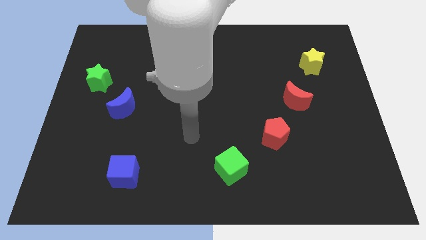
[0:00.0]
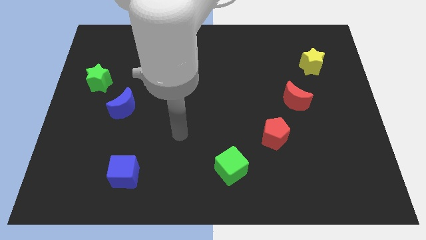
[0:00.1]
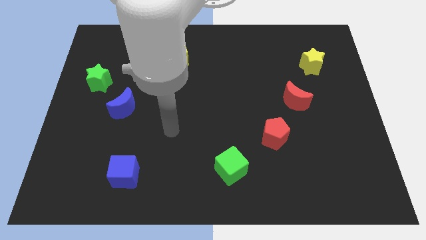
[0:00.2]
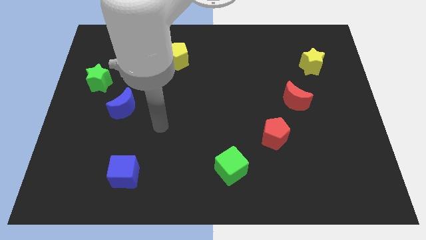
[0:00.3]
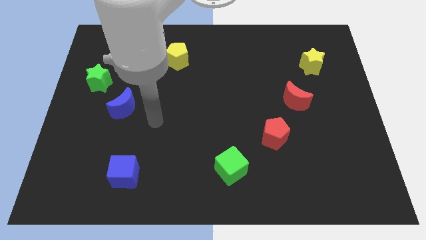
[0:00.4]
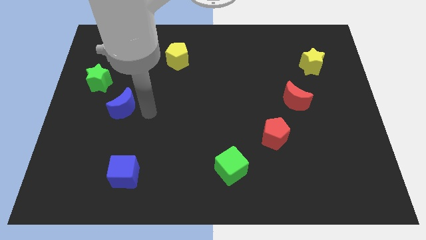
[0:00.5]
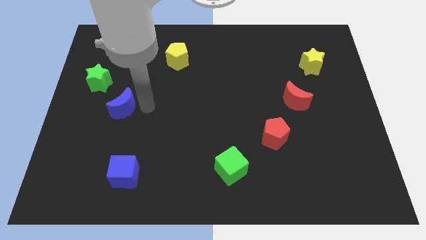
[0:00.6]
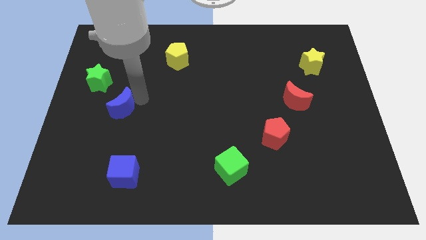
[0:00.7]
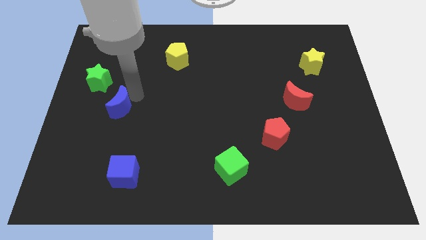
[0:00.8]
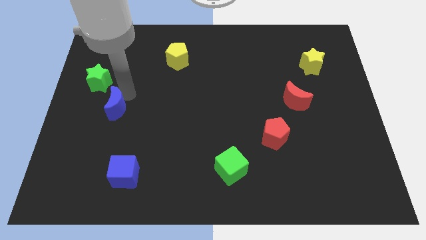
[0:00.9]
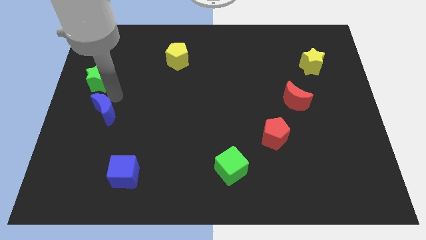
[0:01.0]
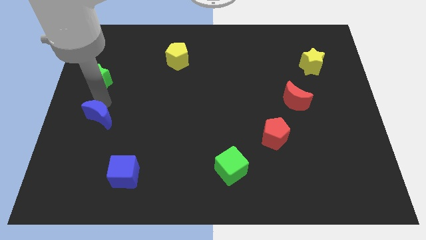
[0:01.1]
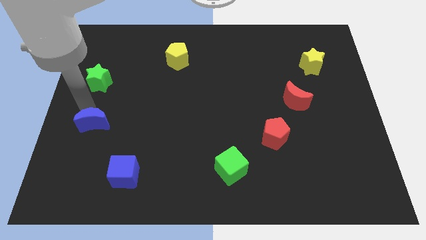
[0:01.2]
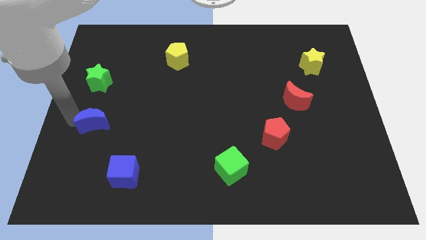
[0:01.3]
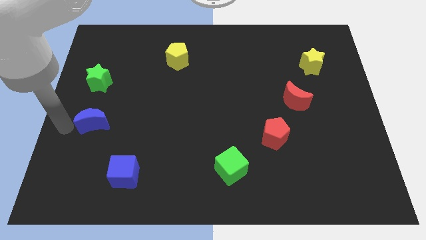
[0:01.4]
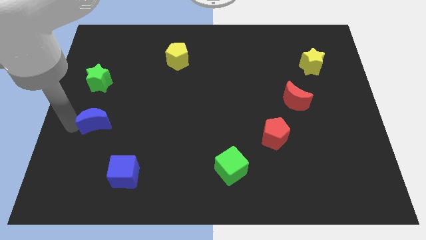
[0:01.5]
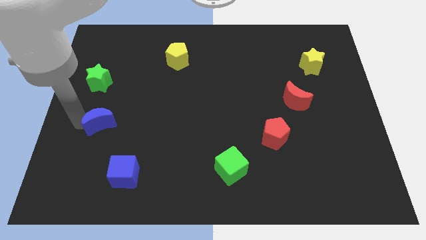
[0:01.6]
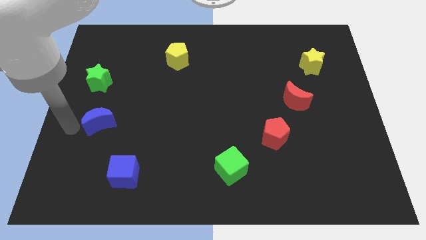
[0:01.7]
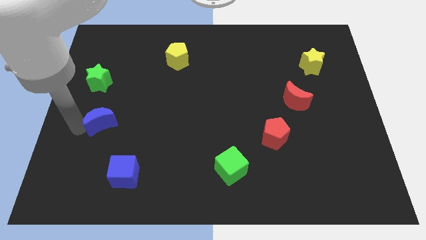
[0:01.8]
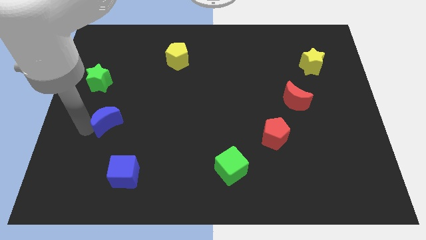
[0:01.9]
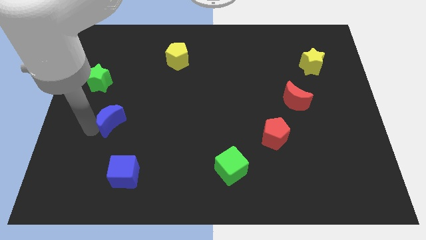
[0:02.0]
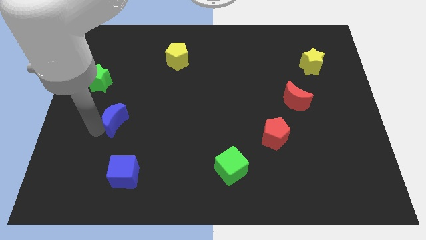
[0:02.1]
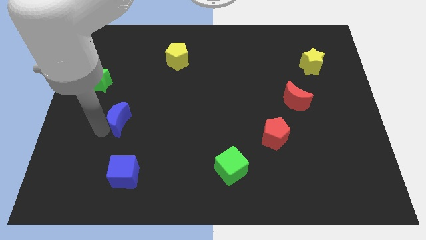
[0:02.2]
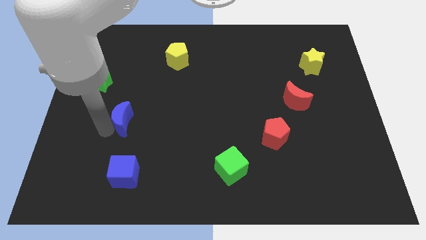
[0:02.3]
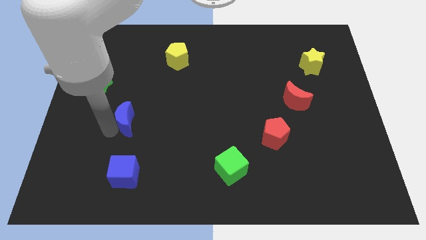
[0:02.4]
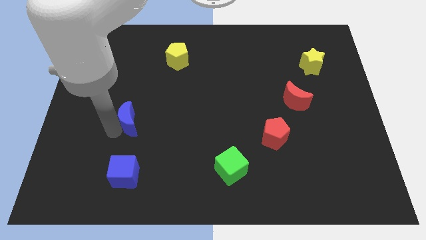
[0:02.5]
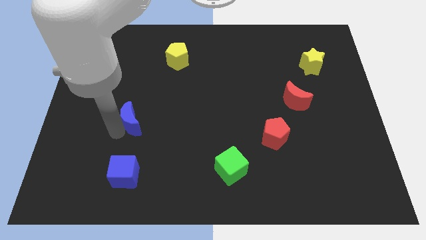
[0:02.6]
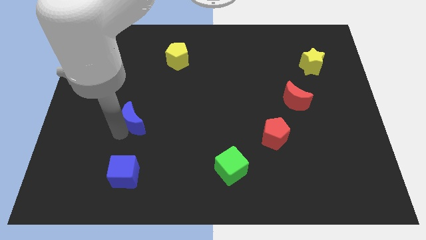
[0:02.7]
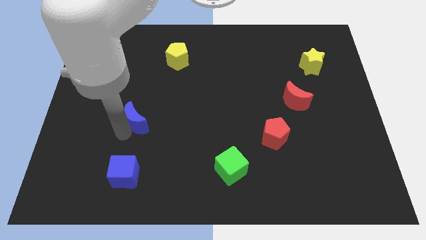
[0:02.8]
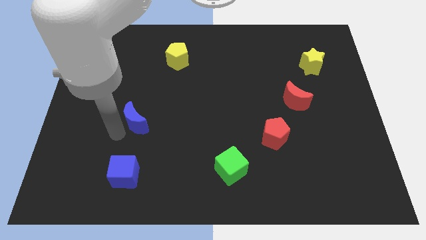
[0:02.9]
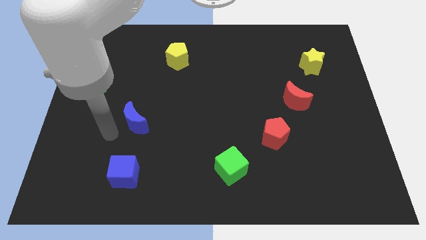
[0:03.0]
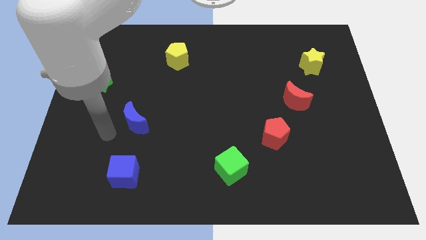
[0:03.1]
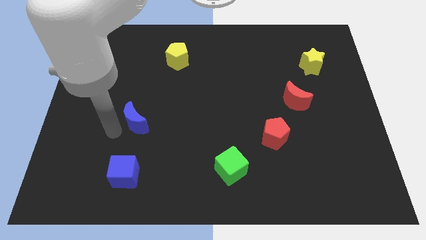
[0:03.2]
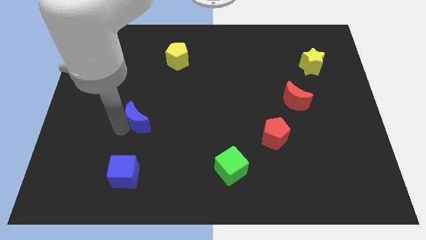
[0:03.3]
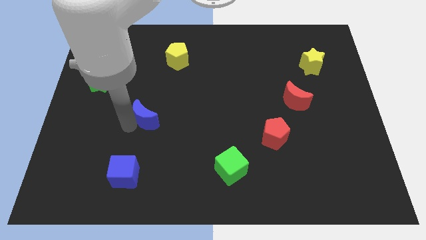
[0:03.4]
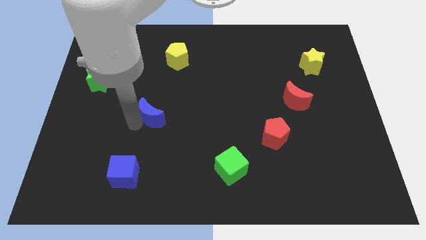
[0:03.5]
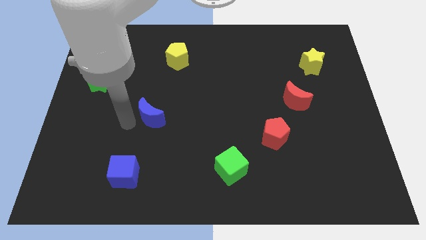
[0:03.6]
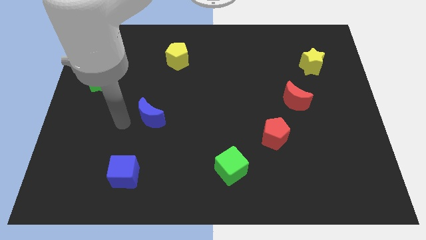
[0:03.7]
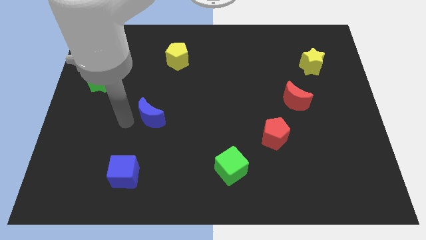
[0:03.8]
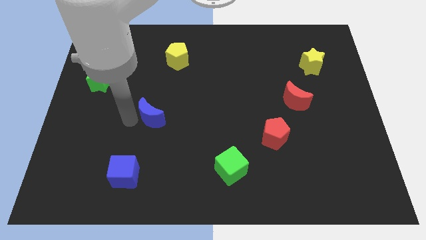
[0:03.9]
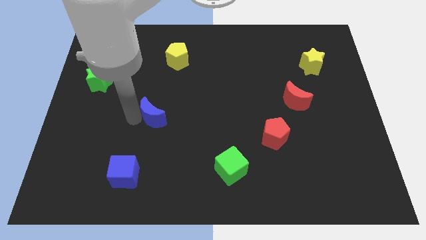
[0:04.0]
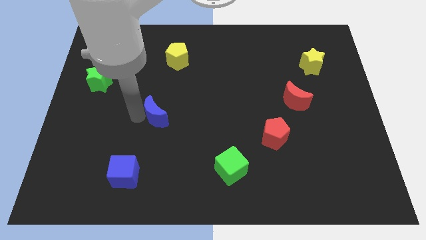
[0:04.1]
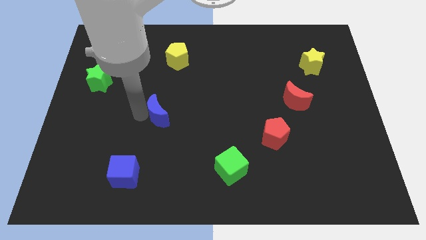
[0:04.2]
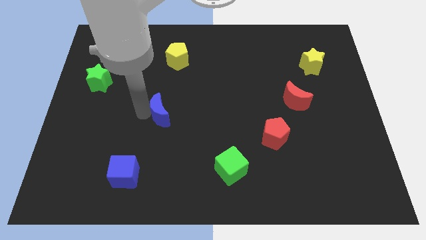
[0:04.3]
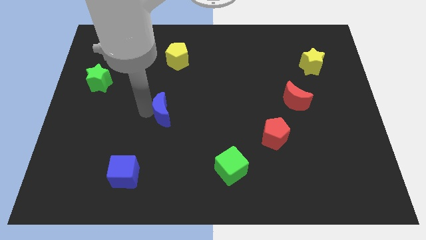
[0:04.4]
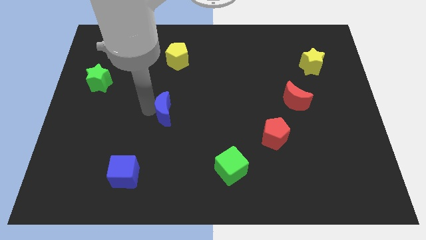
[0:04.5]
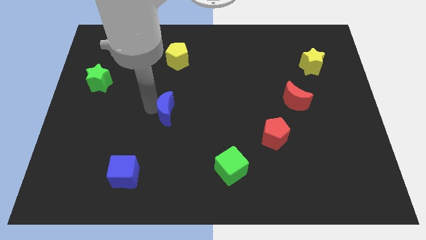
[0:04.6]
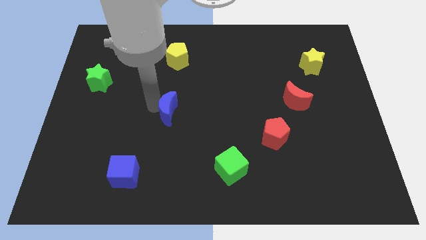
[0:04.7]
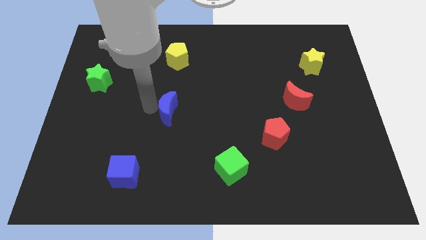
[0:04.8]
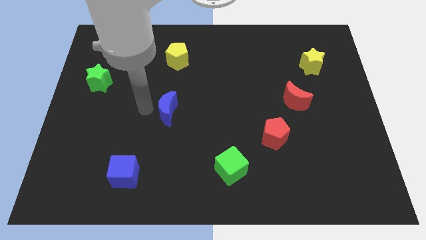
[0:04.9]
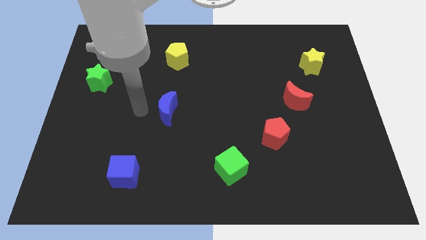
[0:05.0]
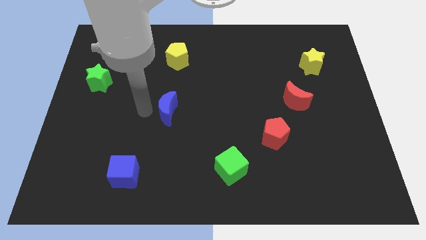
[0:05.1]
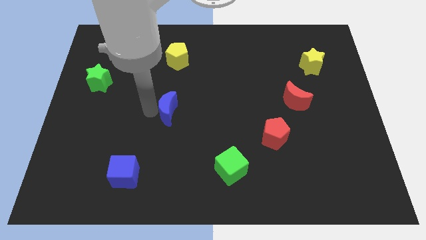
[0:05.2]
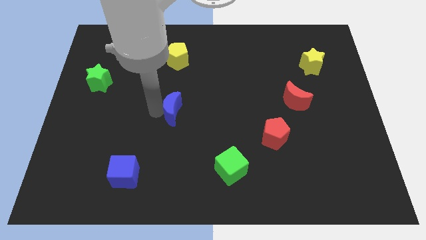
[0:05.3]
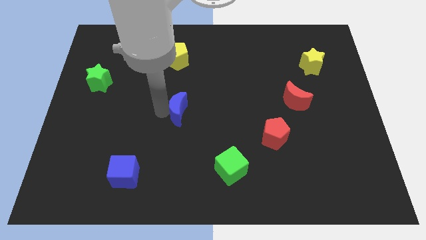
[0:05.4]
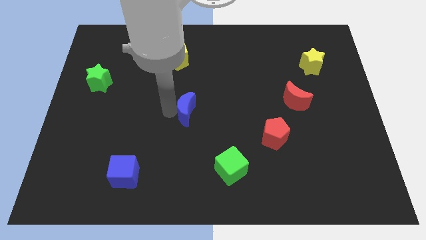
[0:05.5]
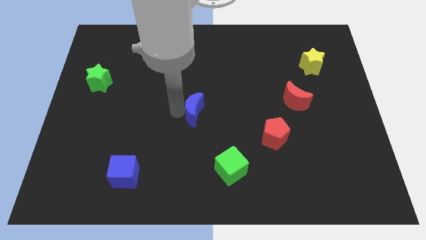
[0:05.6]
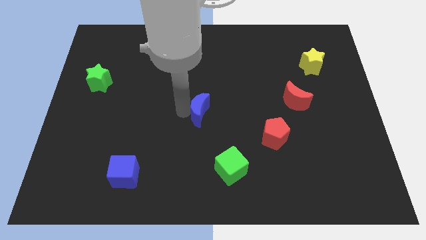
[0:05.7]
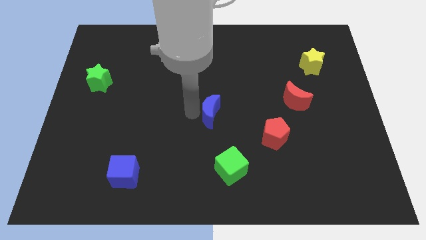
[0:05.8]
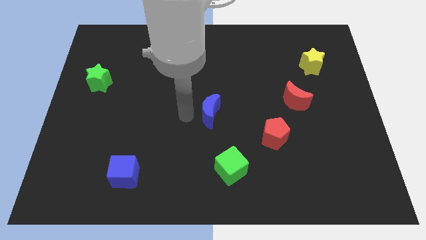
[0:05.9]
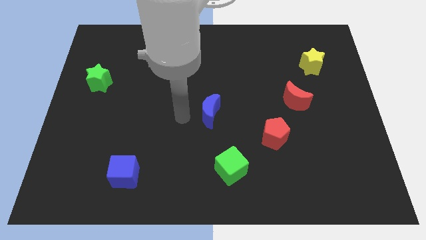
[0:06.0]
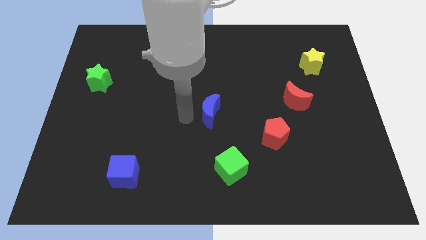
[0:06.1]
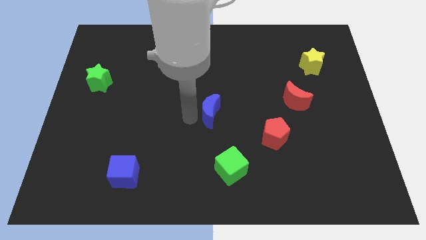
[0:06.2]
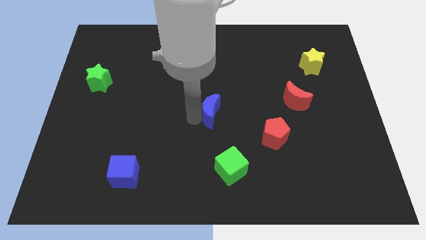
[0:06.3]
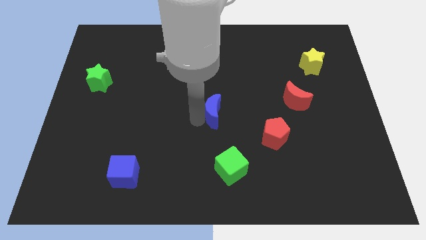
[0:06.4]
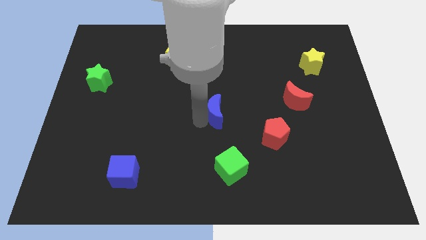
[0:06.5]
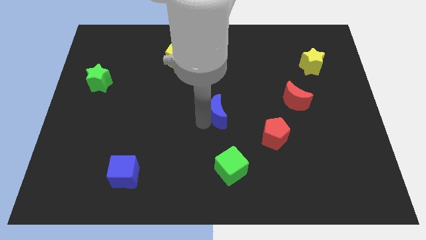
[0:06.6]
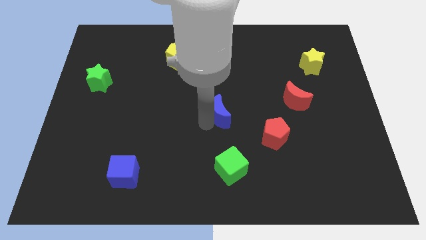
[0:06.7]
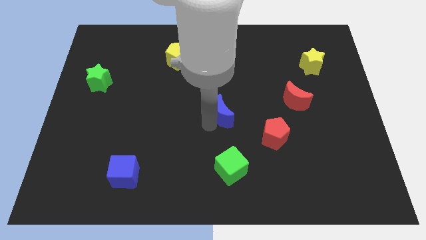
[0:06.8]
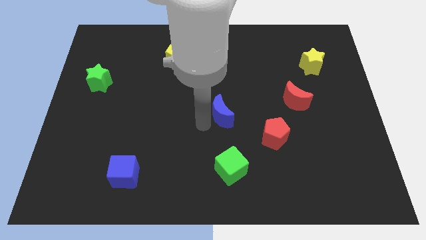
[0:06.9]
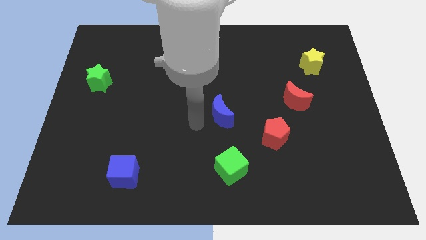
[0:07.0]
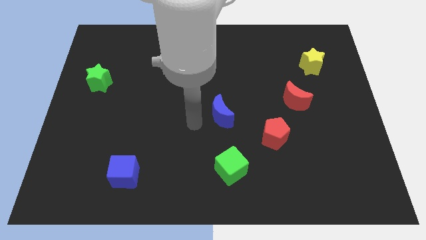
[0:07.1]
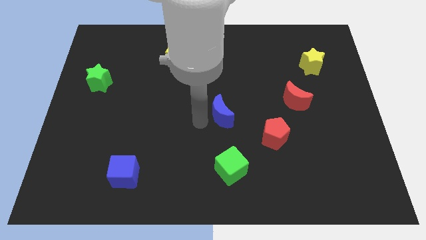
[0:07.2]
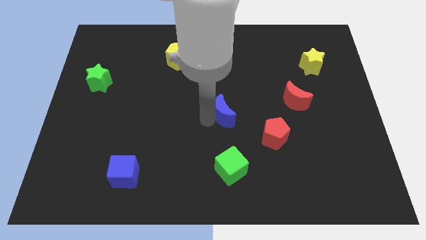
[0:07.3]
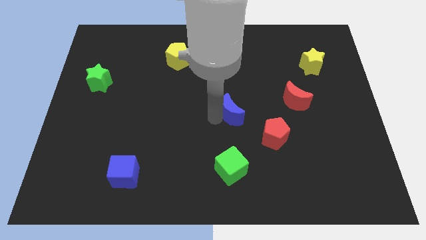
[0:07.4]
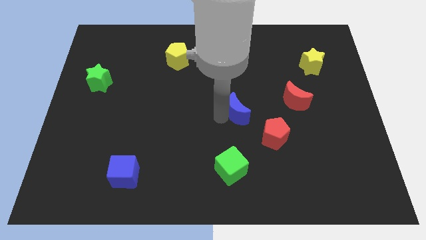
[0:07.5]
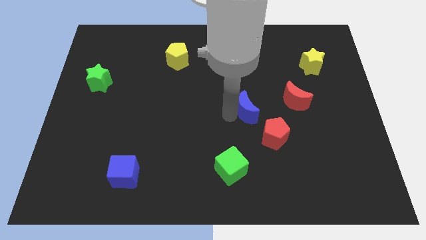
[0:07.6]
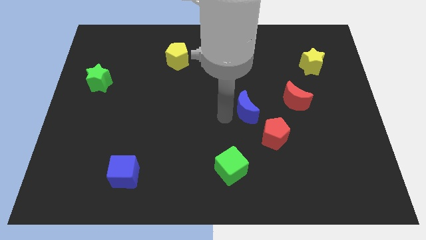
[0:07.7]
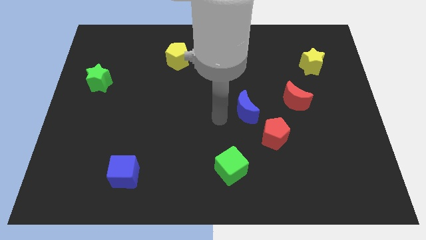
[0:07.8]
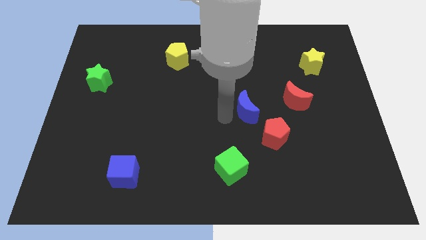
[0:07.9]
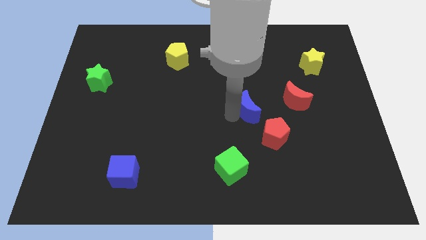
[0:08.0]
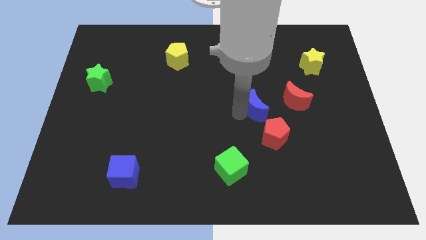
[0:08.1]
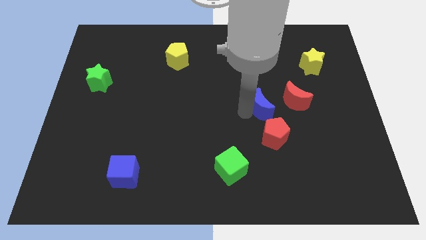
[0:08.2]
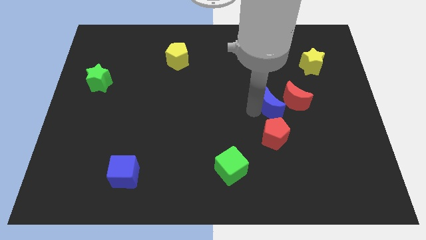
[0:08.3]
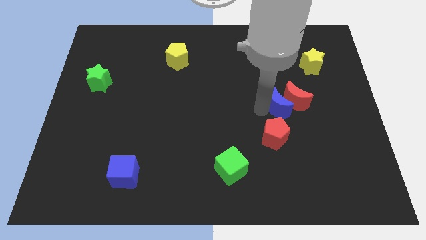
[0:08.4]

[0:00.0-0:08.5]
push the blue moon to the red moon
